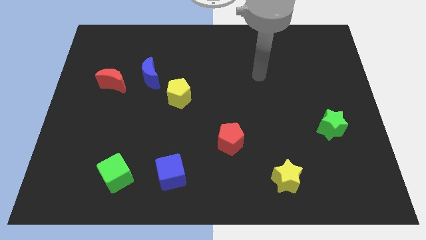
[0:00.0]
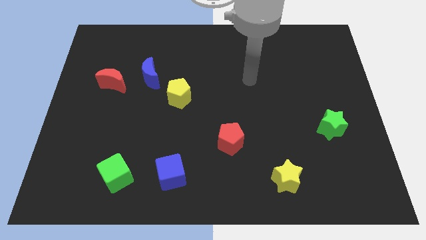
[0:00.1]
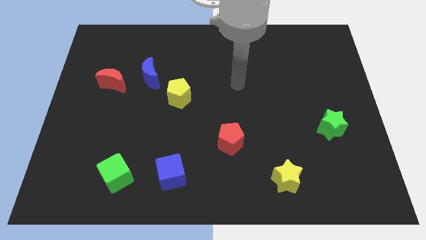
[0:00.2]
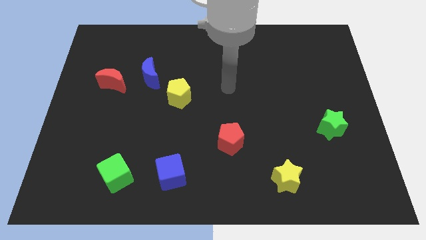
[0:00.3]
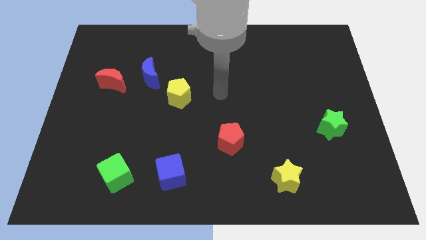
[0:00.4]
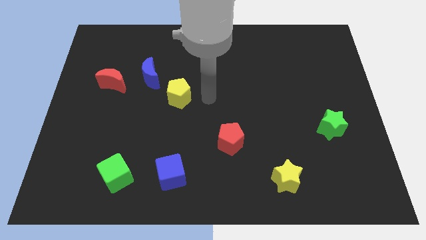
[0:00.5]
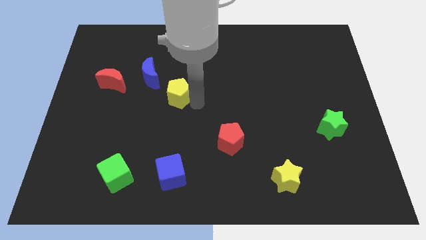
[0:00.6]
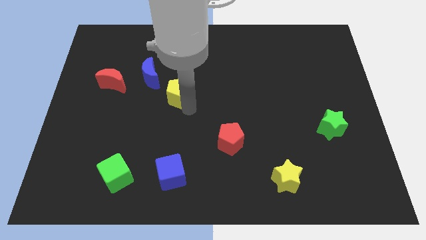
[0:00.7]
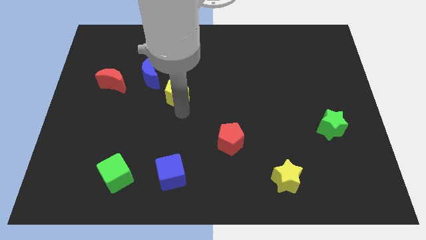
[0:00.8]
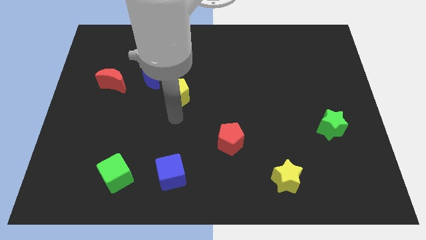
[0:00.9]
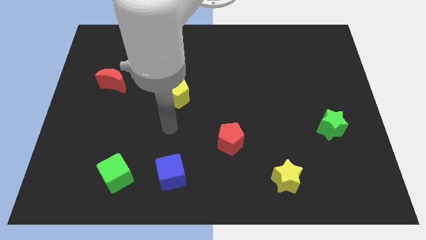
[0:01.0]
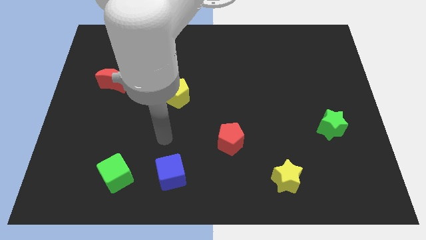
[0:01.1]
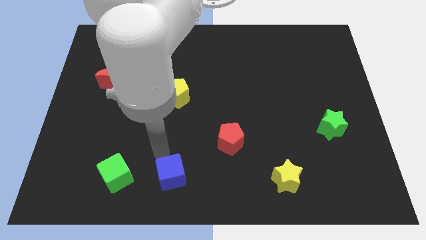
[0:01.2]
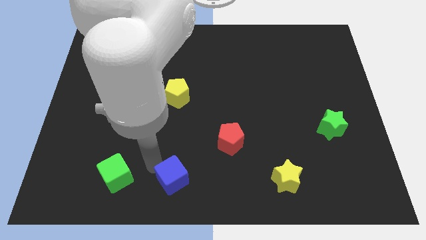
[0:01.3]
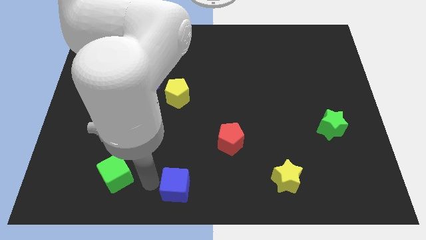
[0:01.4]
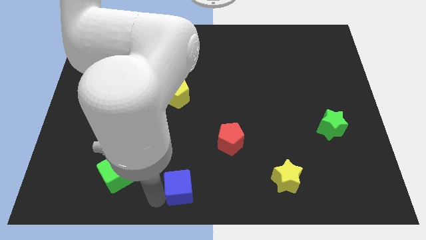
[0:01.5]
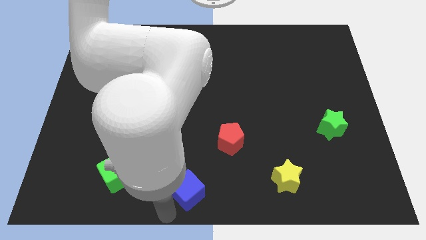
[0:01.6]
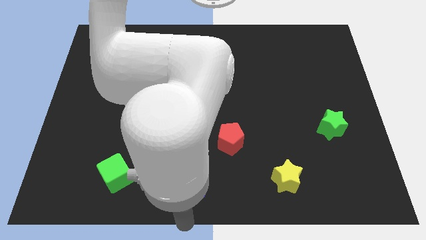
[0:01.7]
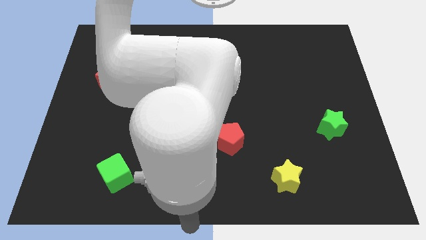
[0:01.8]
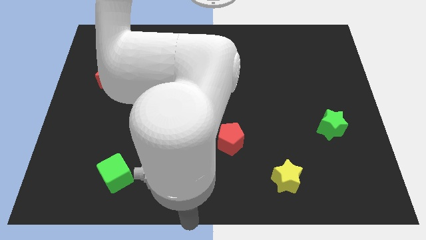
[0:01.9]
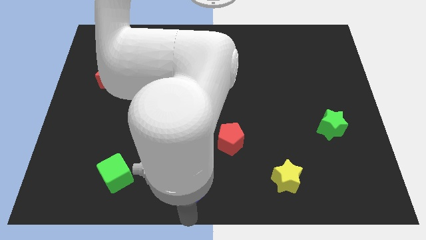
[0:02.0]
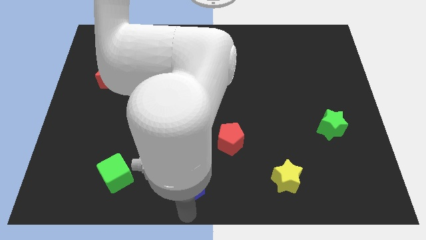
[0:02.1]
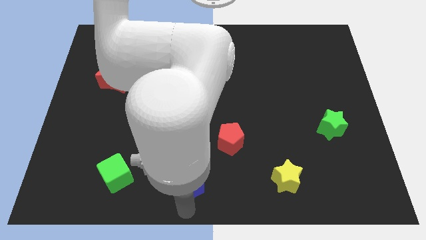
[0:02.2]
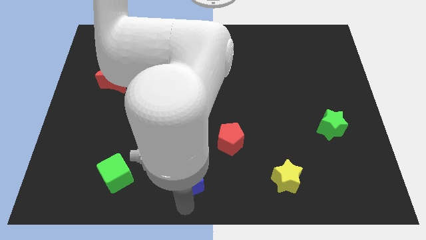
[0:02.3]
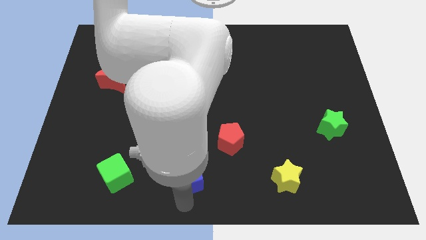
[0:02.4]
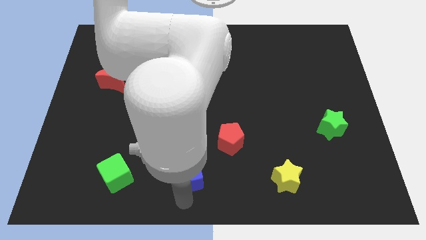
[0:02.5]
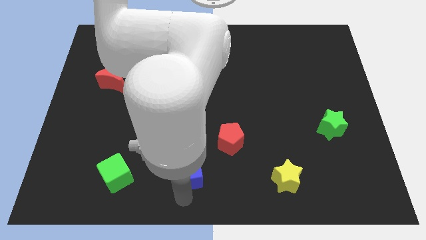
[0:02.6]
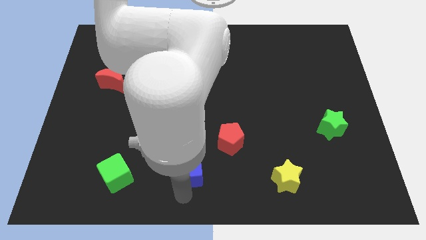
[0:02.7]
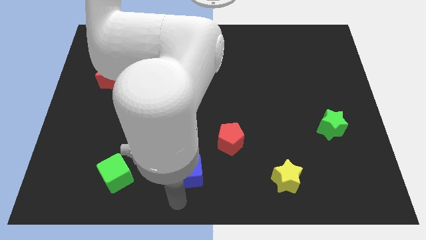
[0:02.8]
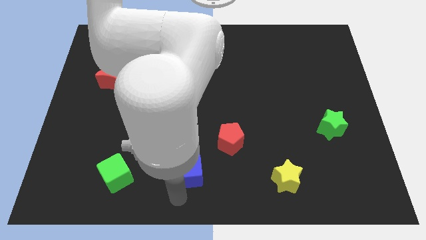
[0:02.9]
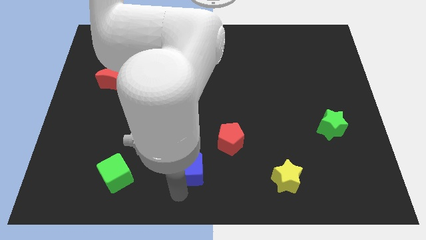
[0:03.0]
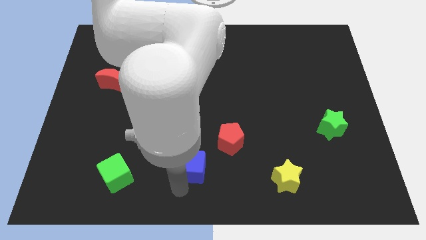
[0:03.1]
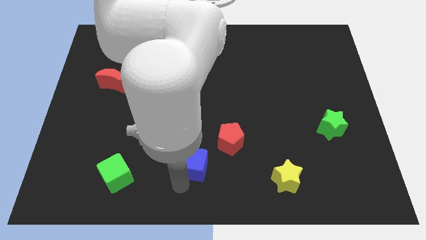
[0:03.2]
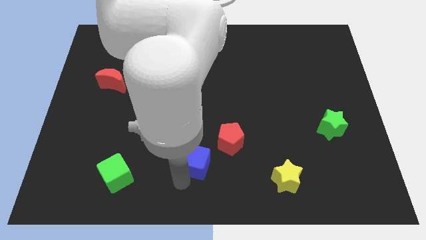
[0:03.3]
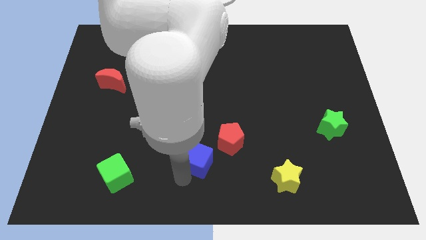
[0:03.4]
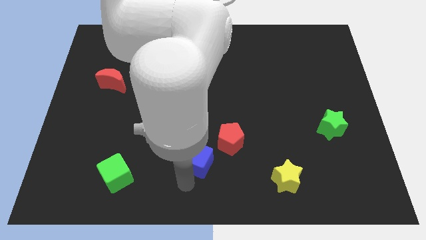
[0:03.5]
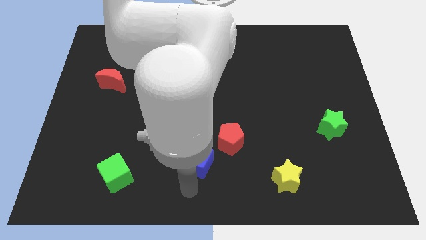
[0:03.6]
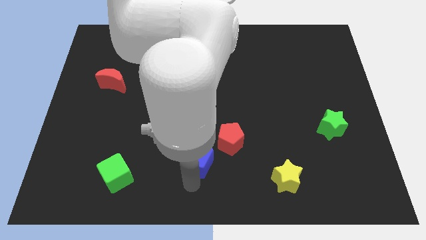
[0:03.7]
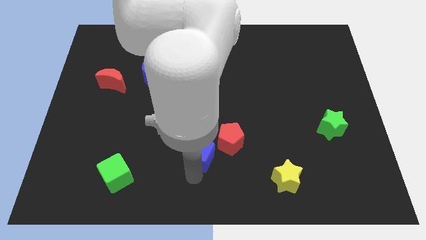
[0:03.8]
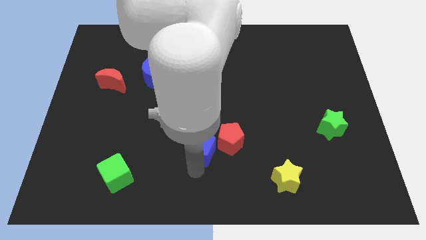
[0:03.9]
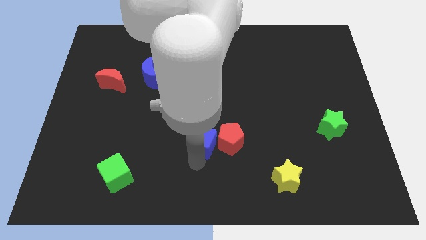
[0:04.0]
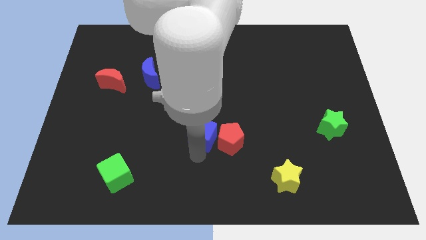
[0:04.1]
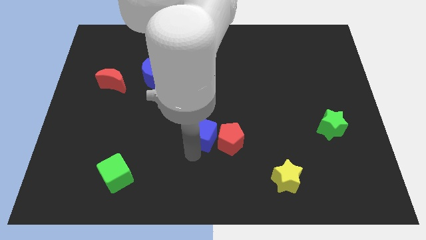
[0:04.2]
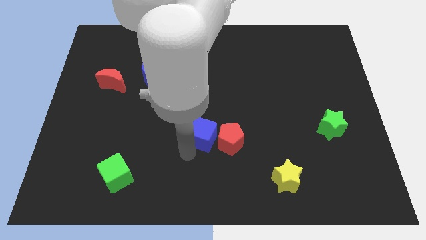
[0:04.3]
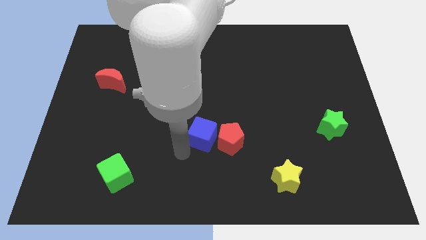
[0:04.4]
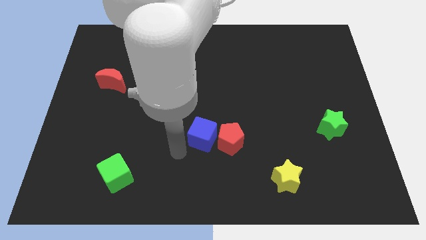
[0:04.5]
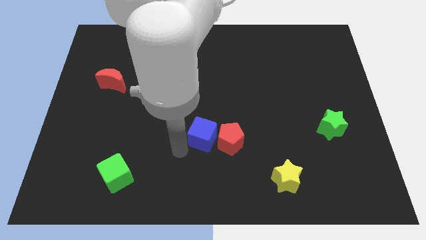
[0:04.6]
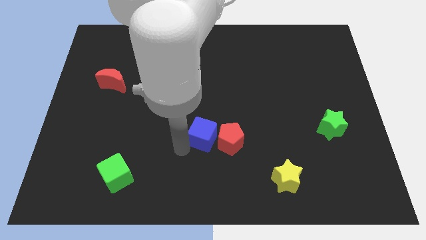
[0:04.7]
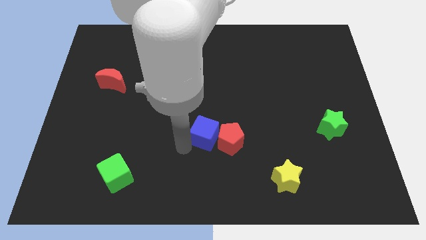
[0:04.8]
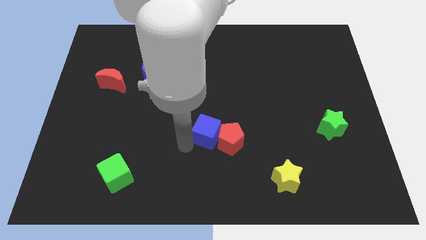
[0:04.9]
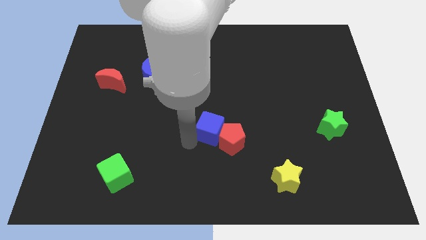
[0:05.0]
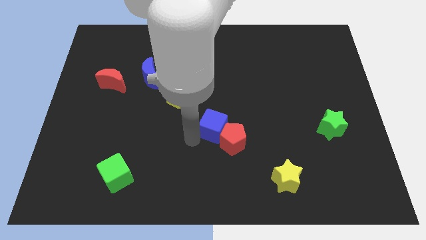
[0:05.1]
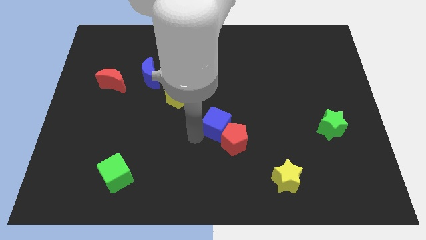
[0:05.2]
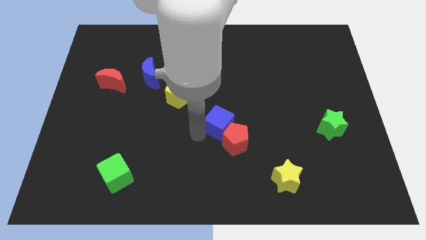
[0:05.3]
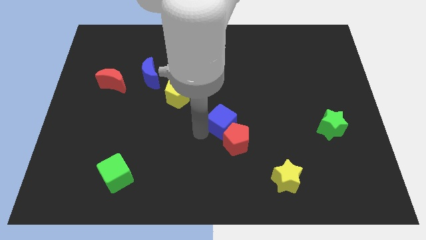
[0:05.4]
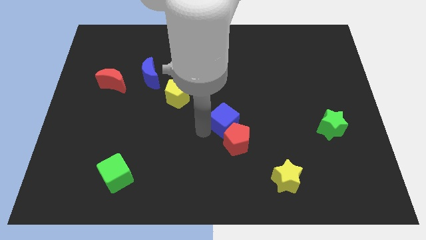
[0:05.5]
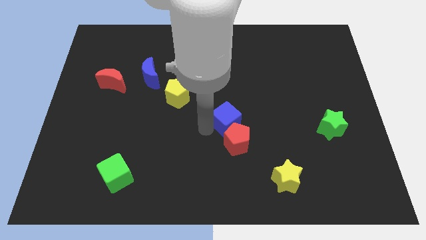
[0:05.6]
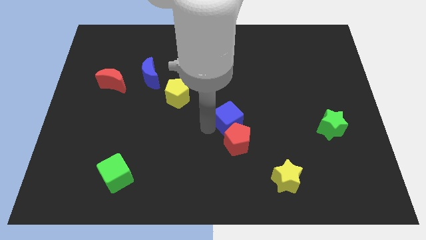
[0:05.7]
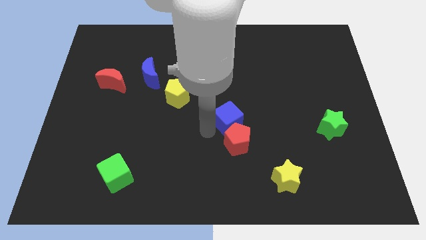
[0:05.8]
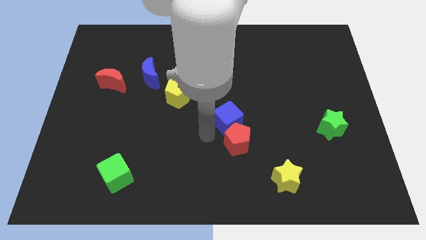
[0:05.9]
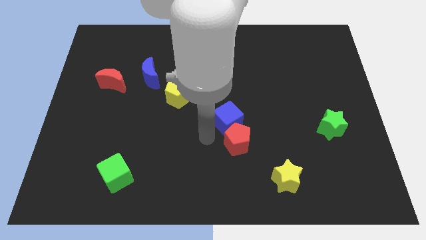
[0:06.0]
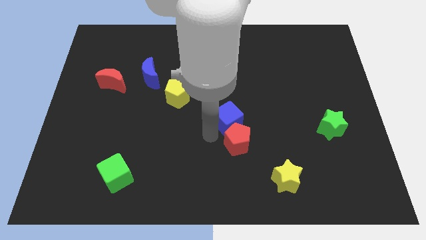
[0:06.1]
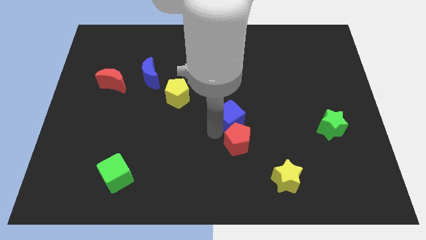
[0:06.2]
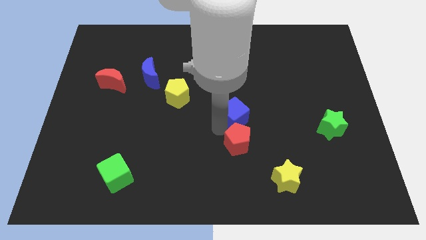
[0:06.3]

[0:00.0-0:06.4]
slide the blue cube upwards and right diagonally

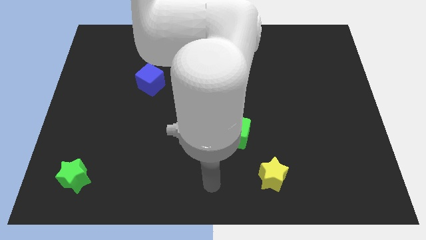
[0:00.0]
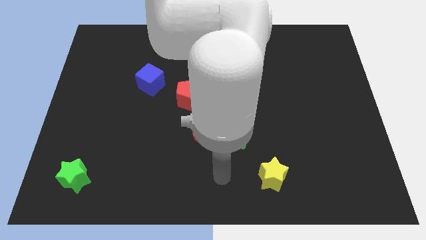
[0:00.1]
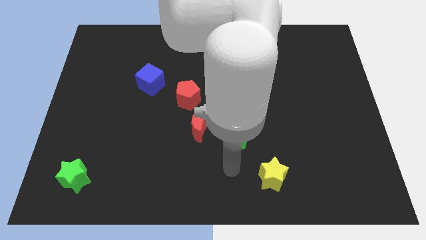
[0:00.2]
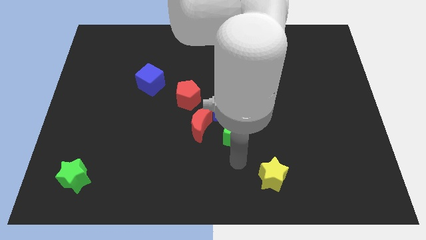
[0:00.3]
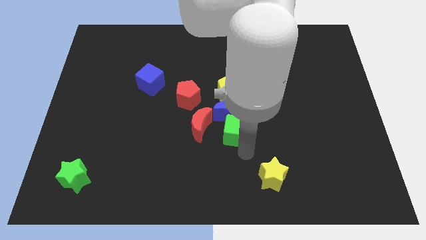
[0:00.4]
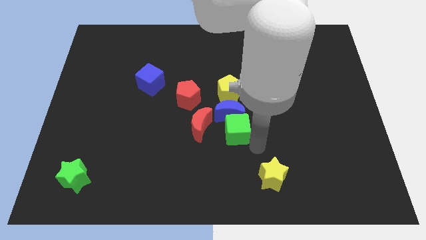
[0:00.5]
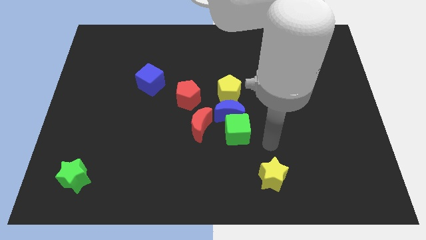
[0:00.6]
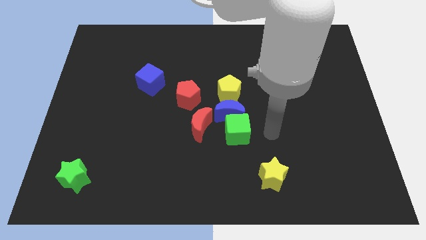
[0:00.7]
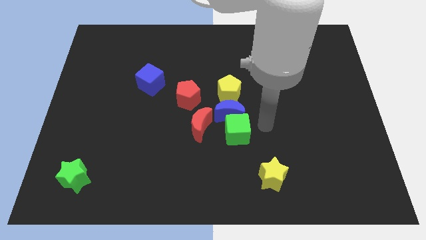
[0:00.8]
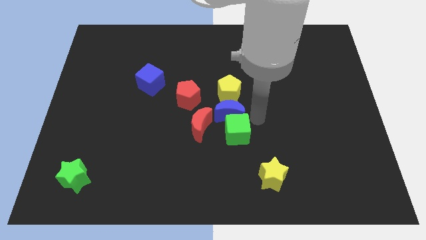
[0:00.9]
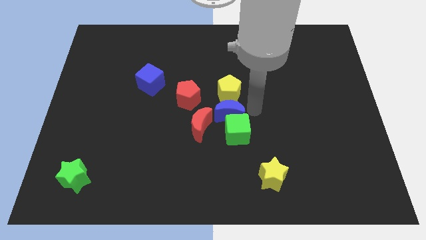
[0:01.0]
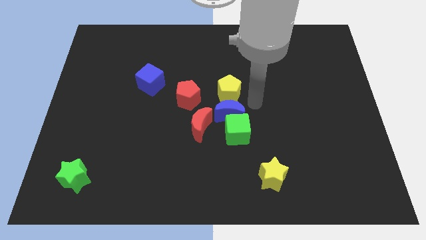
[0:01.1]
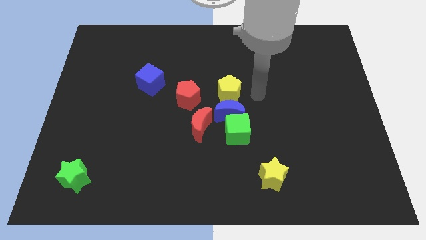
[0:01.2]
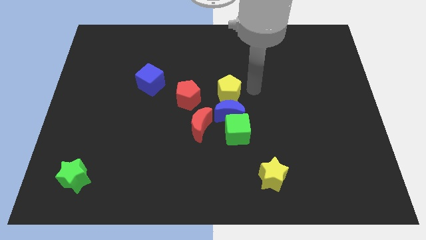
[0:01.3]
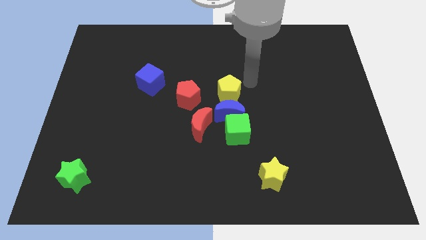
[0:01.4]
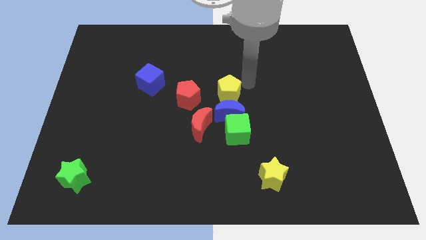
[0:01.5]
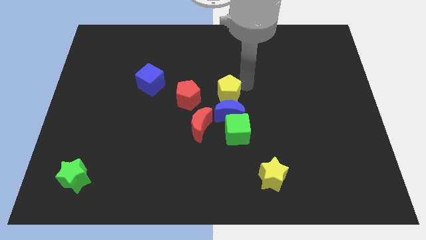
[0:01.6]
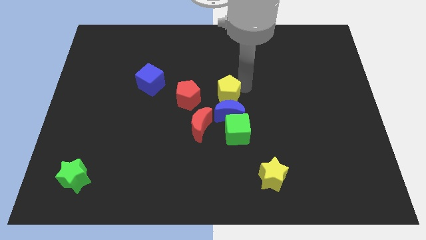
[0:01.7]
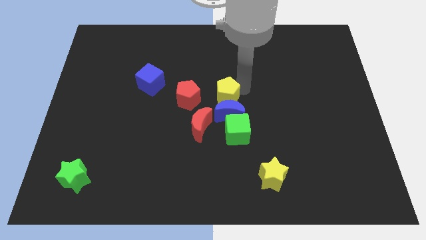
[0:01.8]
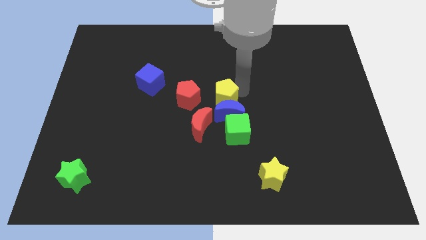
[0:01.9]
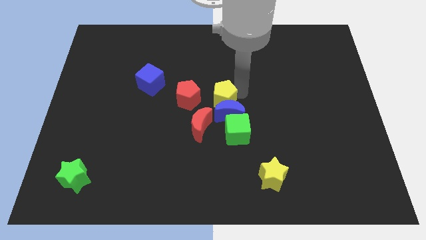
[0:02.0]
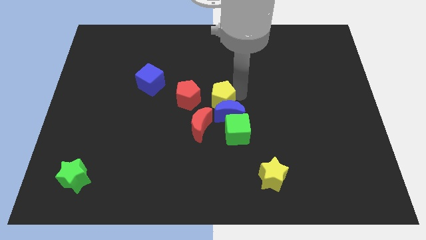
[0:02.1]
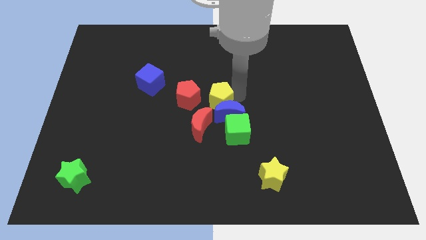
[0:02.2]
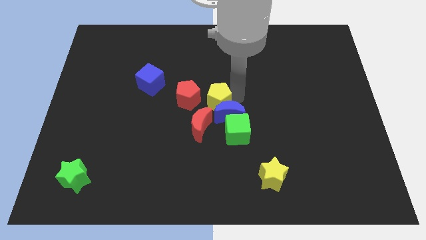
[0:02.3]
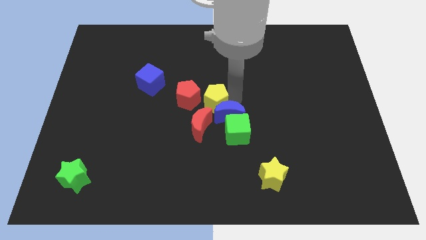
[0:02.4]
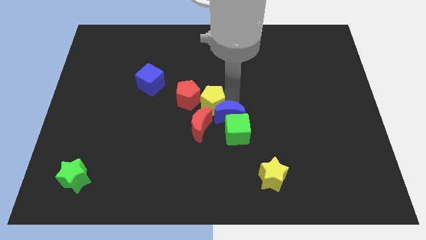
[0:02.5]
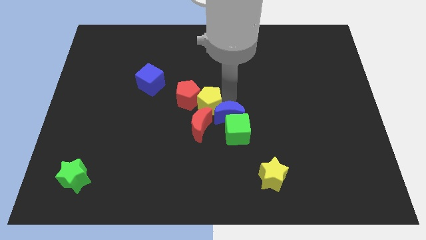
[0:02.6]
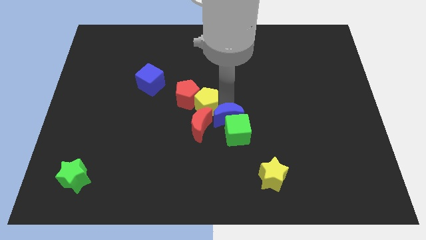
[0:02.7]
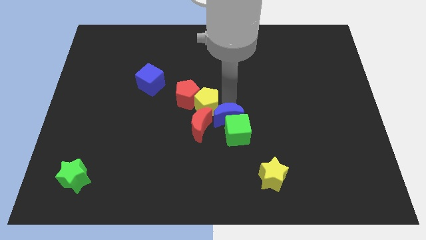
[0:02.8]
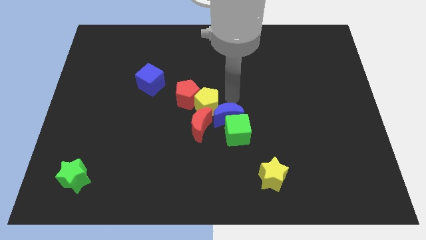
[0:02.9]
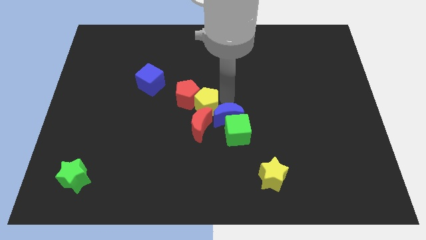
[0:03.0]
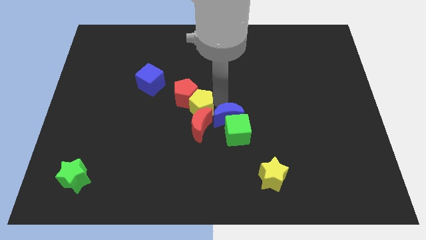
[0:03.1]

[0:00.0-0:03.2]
push the yellow pentagon slightly downwards and to the left
